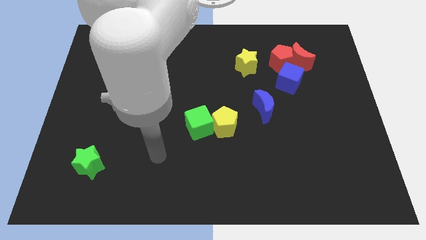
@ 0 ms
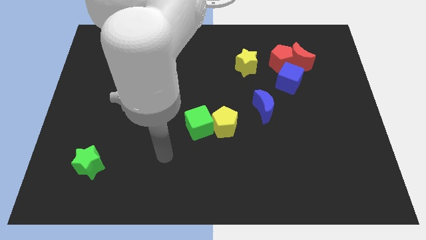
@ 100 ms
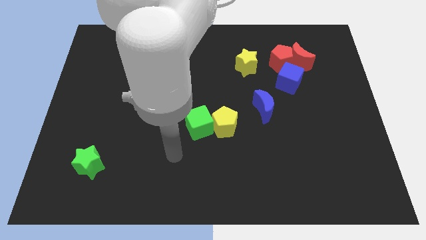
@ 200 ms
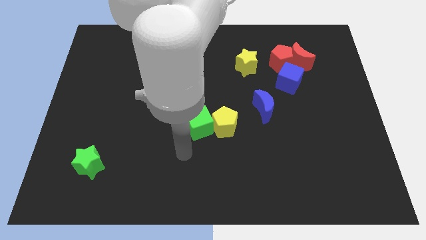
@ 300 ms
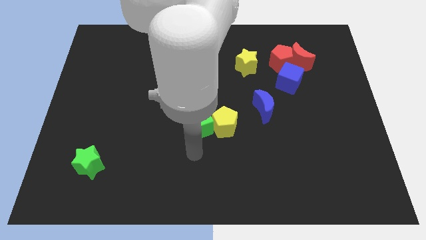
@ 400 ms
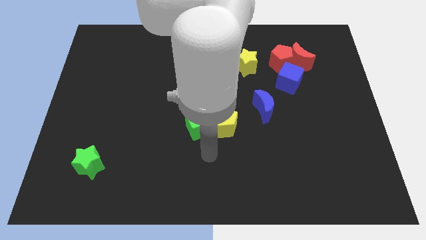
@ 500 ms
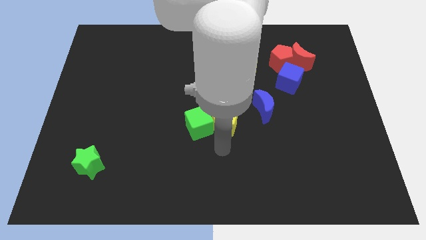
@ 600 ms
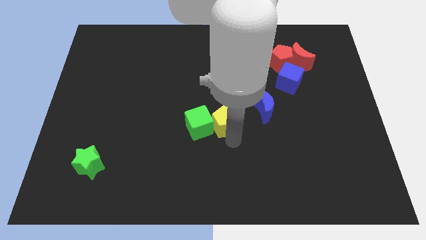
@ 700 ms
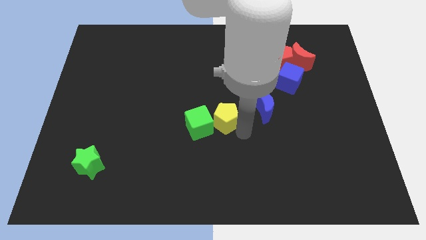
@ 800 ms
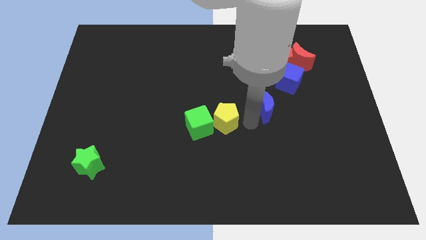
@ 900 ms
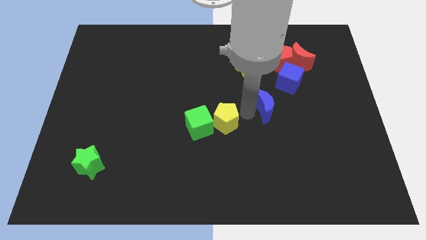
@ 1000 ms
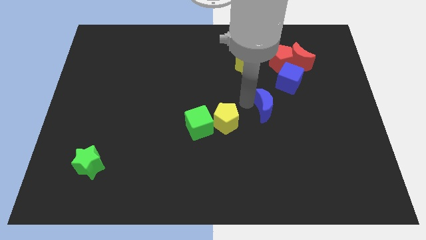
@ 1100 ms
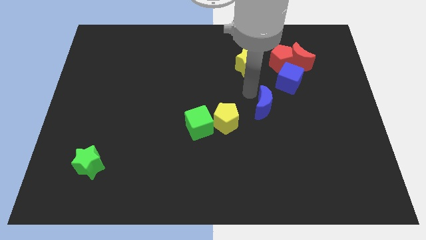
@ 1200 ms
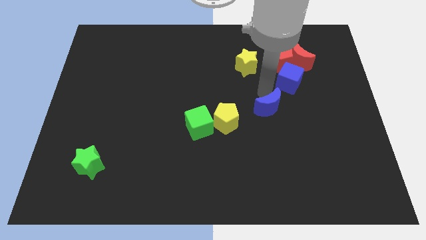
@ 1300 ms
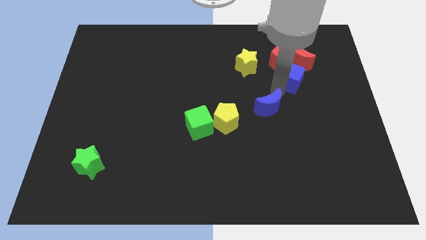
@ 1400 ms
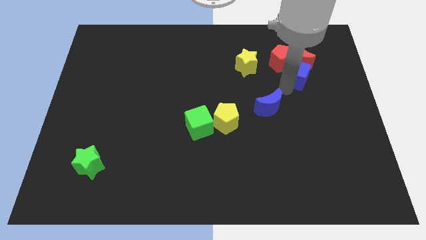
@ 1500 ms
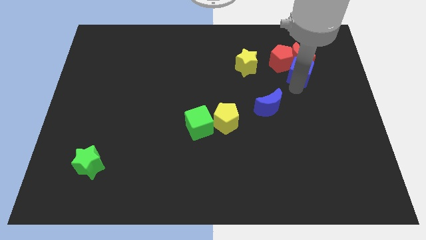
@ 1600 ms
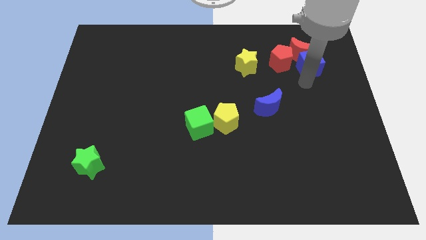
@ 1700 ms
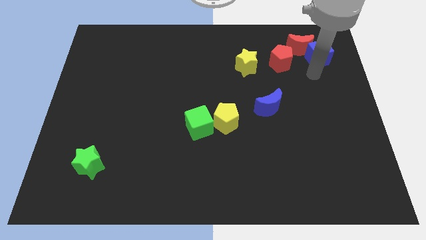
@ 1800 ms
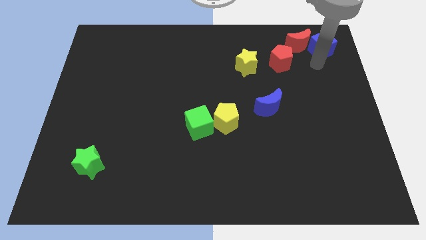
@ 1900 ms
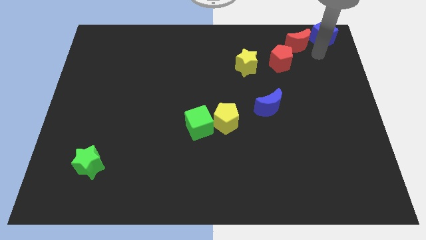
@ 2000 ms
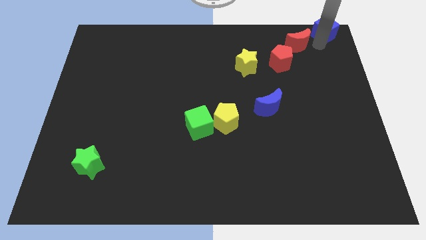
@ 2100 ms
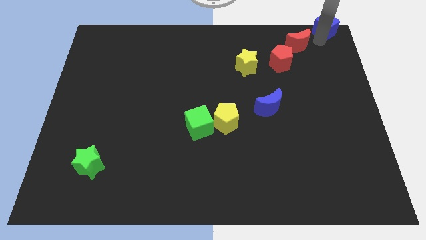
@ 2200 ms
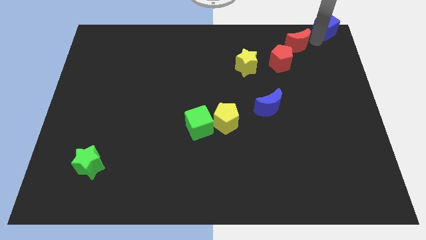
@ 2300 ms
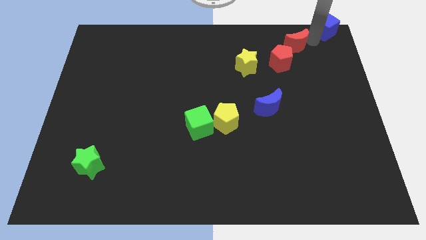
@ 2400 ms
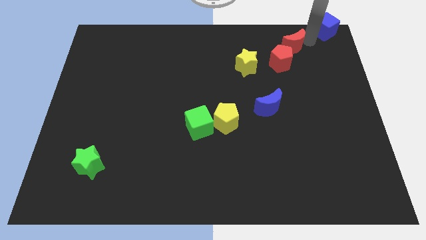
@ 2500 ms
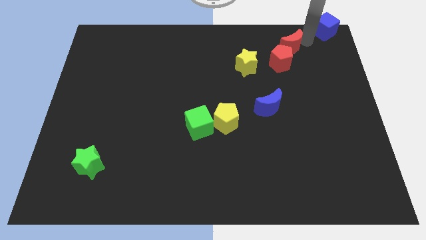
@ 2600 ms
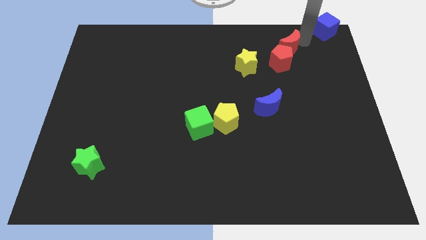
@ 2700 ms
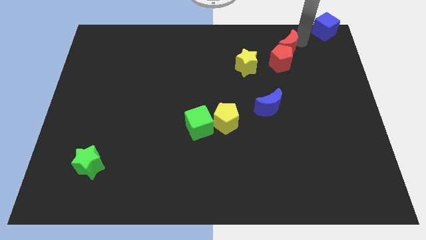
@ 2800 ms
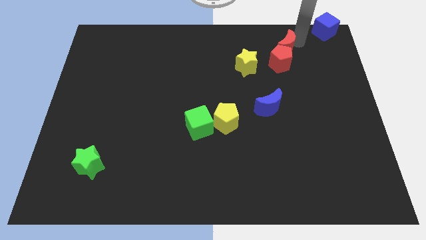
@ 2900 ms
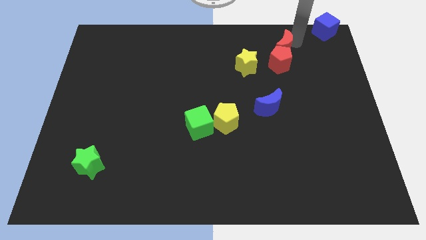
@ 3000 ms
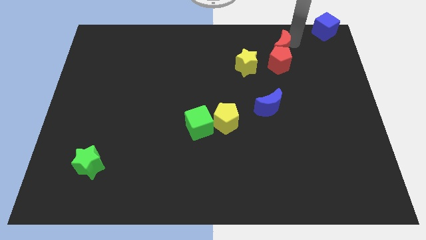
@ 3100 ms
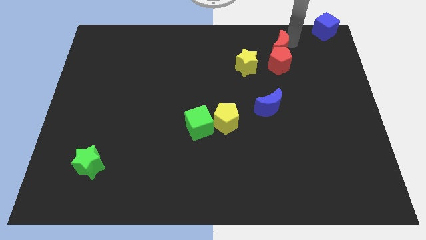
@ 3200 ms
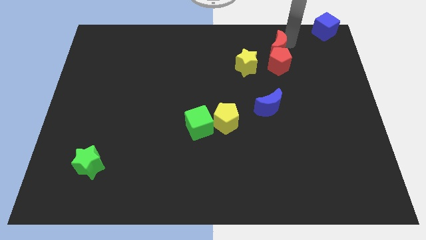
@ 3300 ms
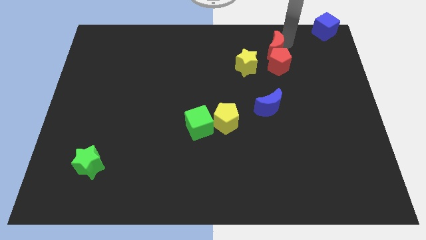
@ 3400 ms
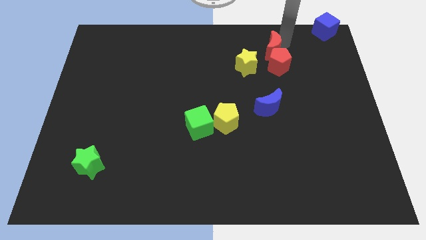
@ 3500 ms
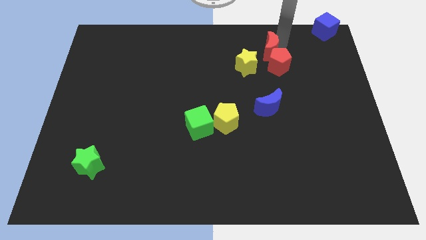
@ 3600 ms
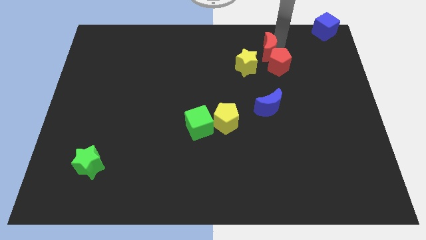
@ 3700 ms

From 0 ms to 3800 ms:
move the red moon left somewhat

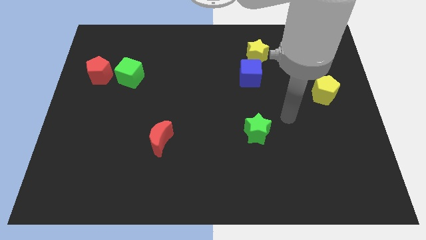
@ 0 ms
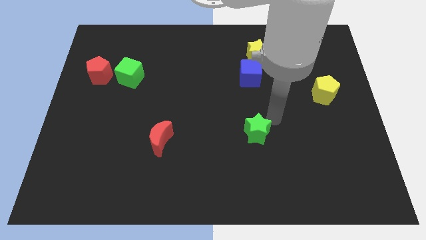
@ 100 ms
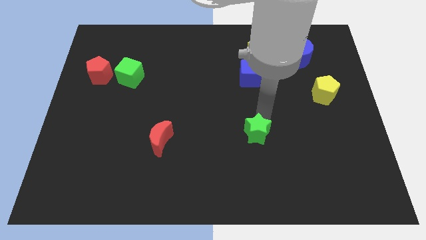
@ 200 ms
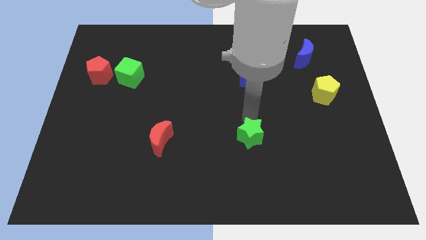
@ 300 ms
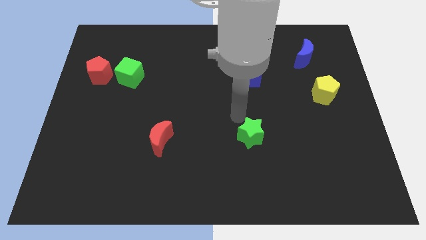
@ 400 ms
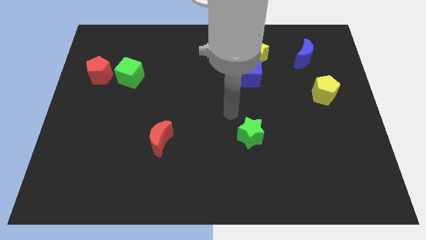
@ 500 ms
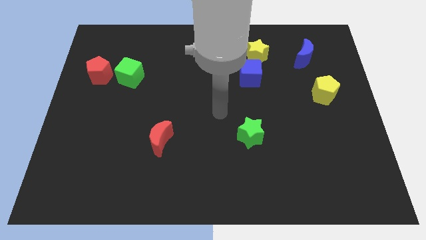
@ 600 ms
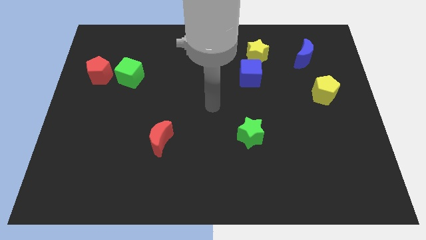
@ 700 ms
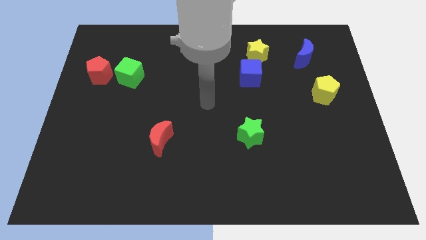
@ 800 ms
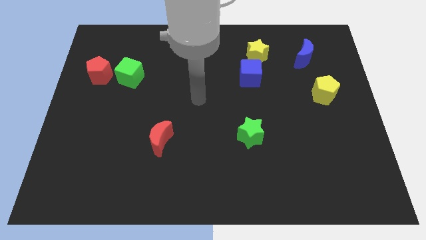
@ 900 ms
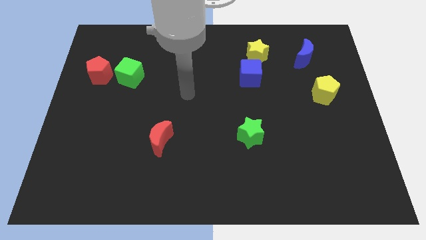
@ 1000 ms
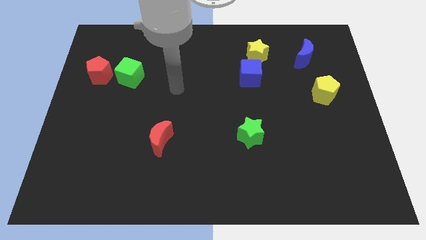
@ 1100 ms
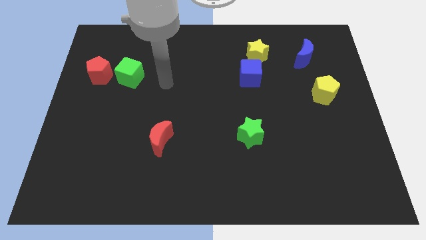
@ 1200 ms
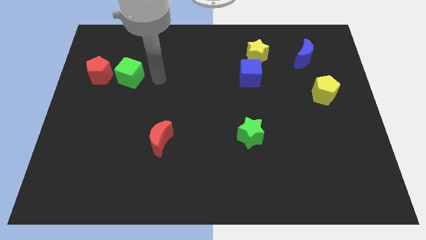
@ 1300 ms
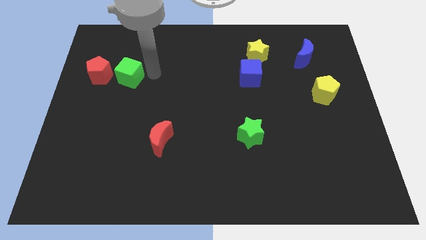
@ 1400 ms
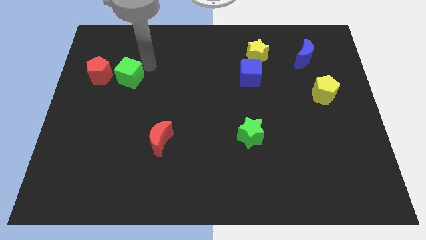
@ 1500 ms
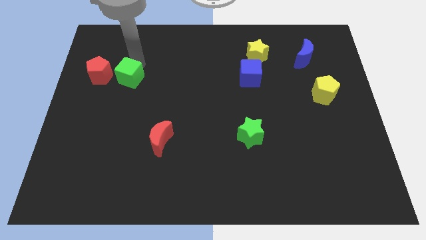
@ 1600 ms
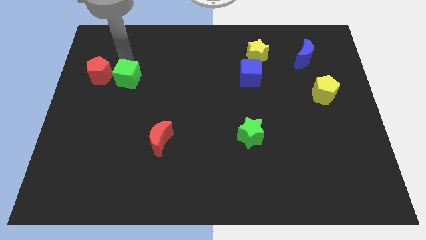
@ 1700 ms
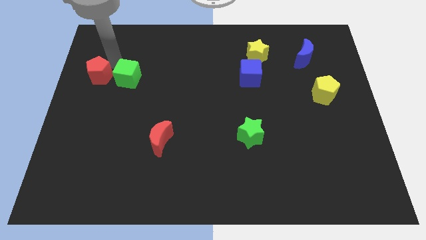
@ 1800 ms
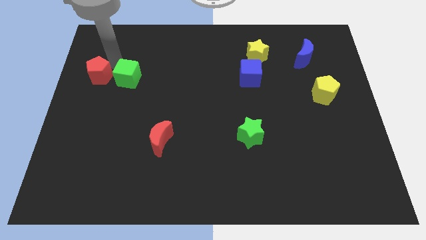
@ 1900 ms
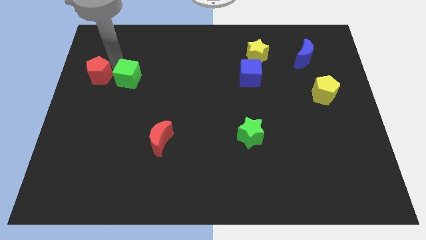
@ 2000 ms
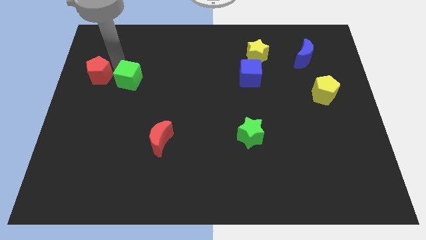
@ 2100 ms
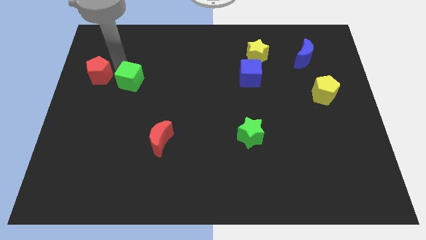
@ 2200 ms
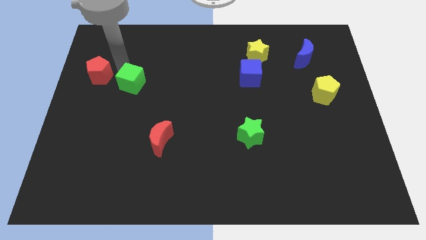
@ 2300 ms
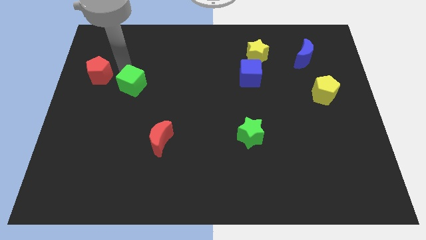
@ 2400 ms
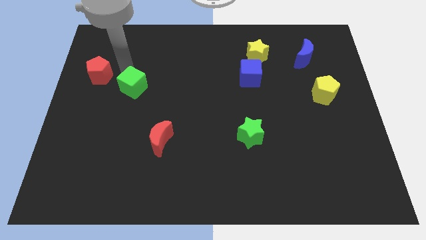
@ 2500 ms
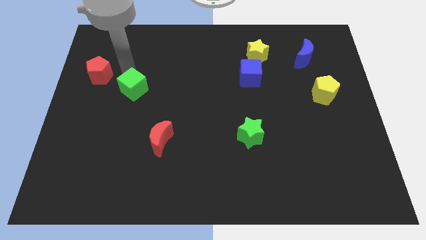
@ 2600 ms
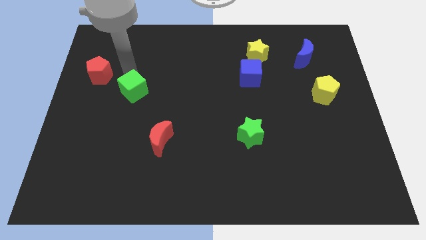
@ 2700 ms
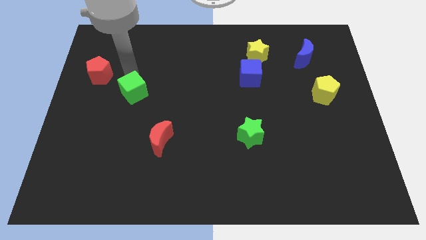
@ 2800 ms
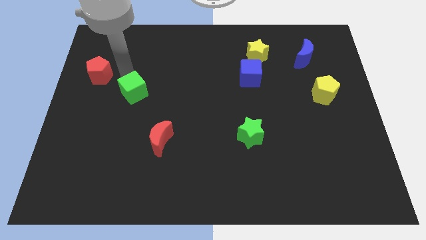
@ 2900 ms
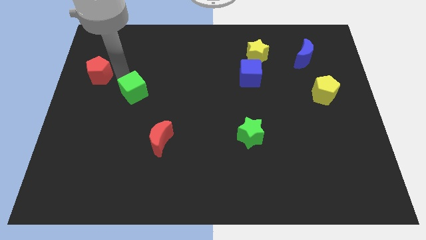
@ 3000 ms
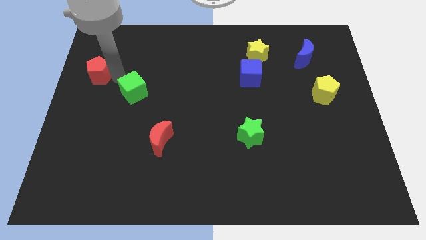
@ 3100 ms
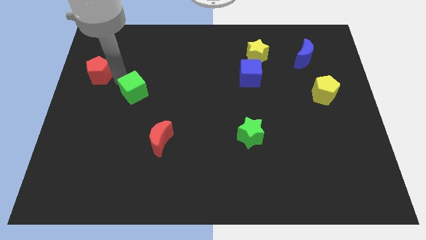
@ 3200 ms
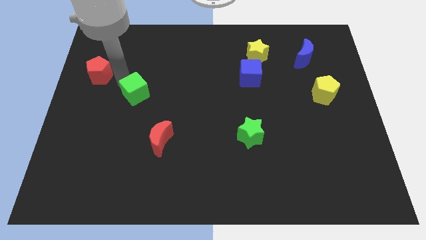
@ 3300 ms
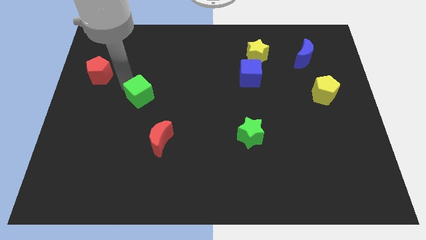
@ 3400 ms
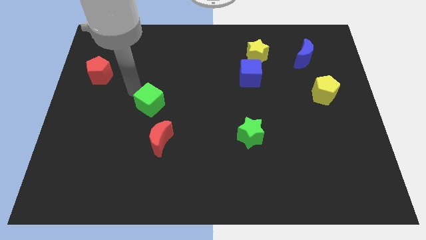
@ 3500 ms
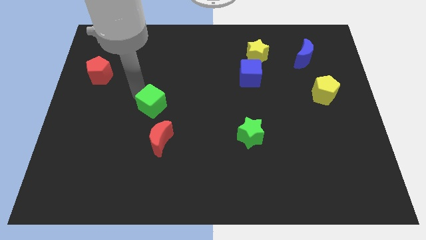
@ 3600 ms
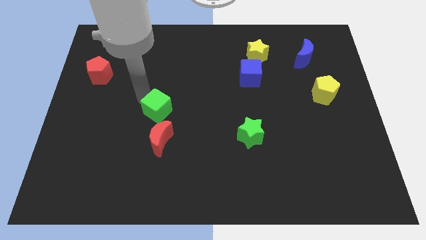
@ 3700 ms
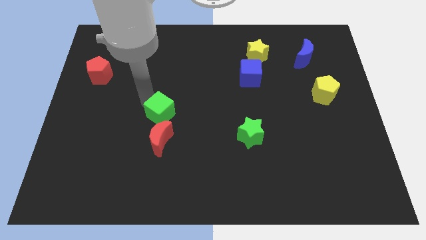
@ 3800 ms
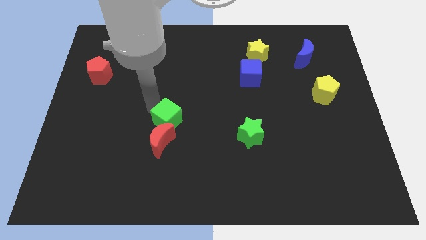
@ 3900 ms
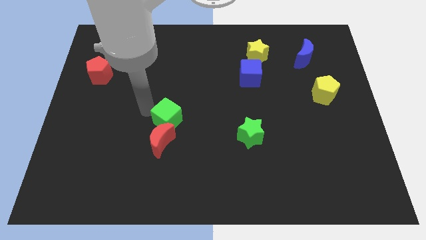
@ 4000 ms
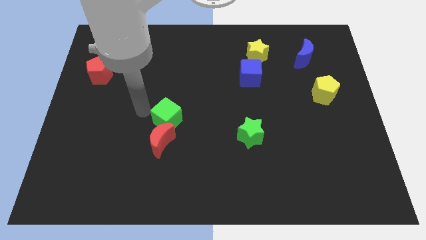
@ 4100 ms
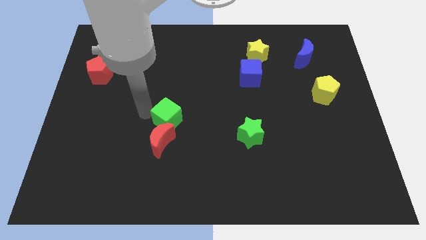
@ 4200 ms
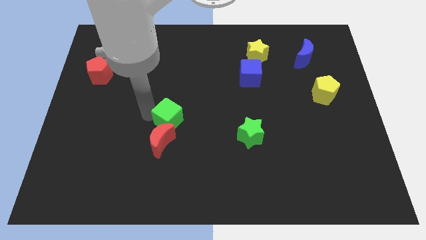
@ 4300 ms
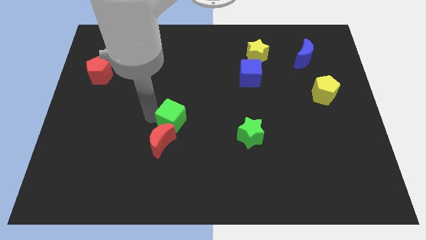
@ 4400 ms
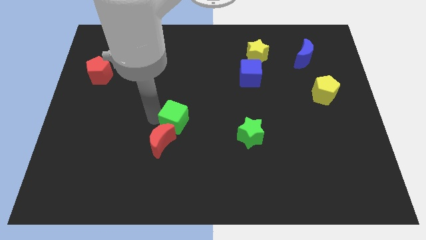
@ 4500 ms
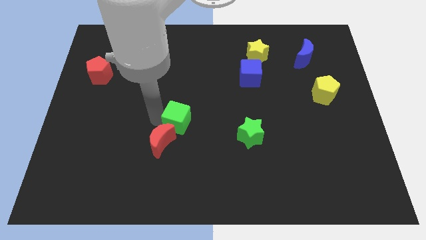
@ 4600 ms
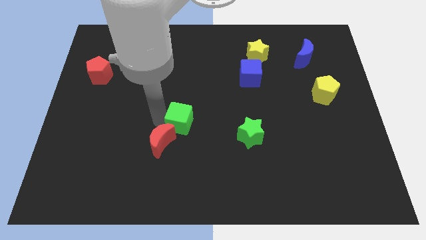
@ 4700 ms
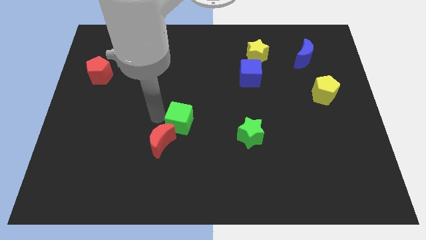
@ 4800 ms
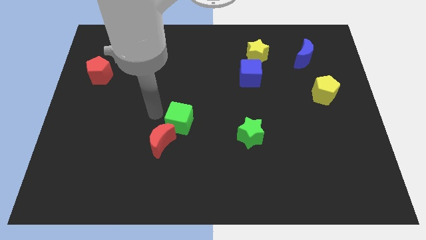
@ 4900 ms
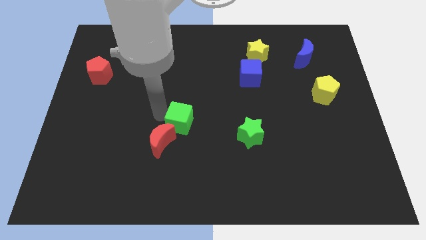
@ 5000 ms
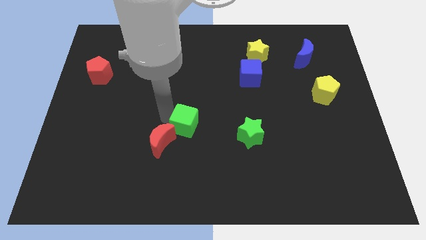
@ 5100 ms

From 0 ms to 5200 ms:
push the green cube down and right diagonally
